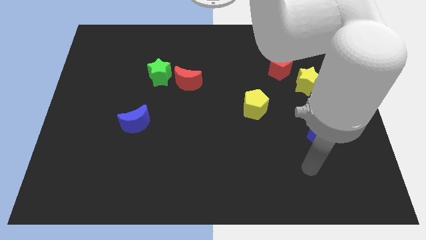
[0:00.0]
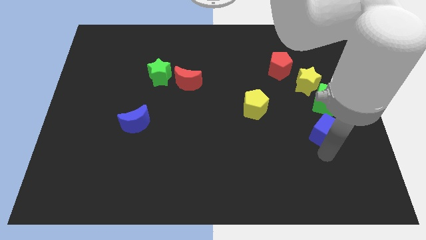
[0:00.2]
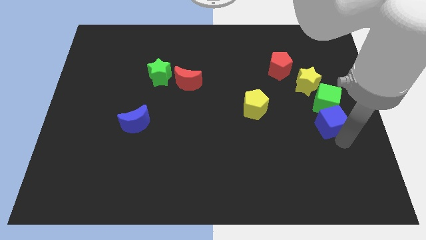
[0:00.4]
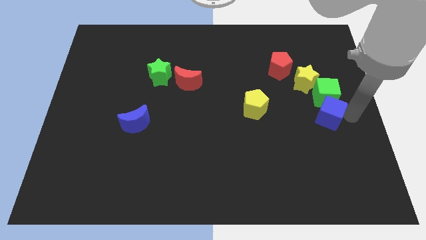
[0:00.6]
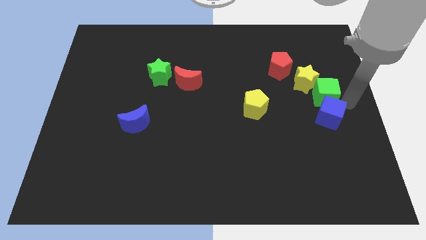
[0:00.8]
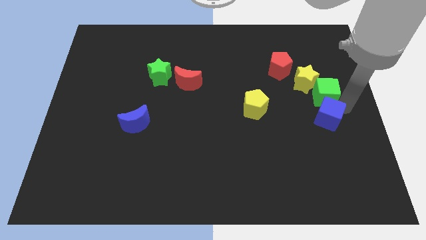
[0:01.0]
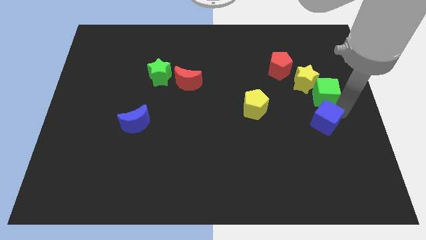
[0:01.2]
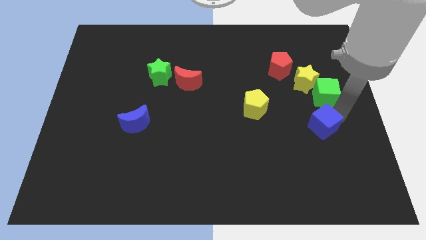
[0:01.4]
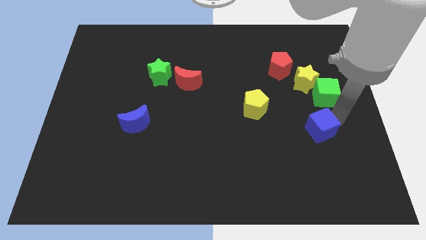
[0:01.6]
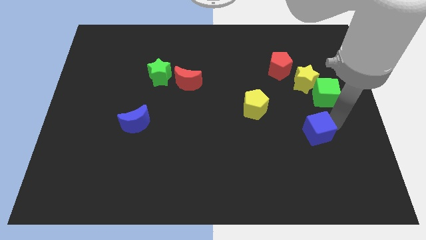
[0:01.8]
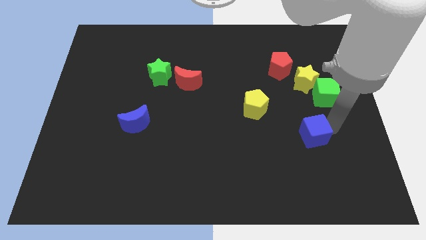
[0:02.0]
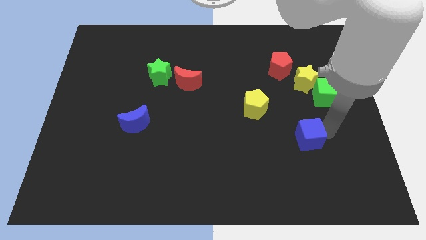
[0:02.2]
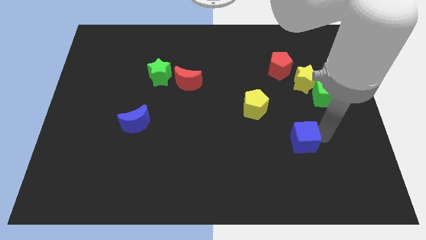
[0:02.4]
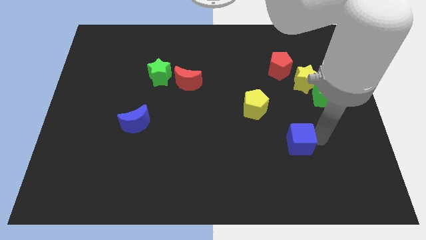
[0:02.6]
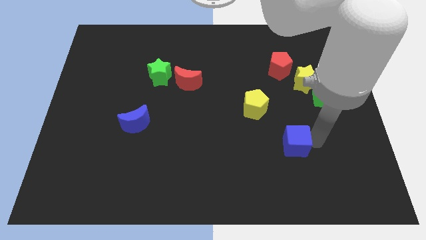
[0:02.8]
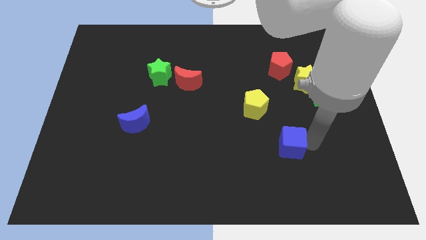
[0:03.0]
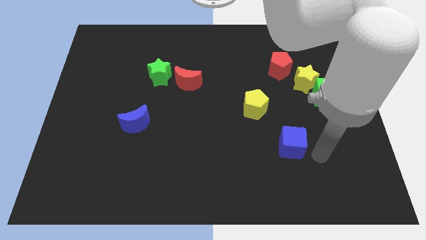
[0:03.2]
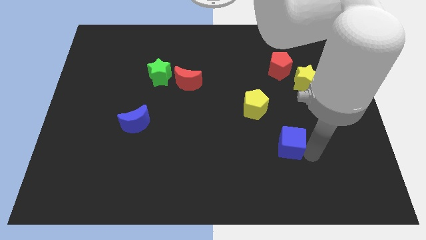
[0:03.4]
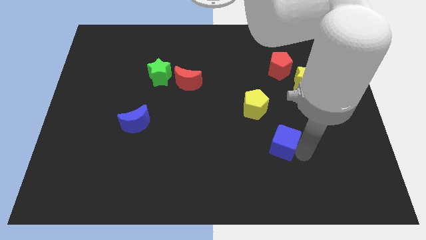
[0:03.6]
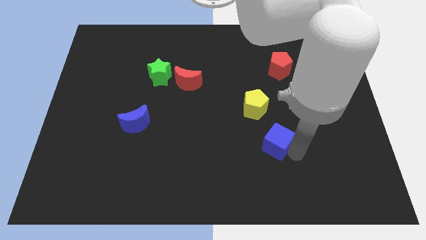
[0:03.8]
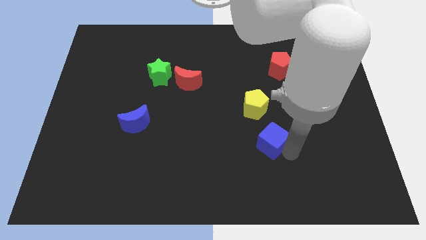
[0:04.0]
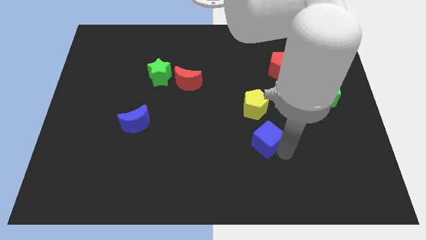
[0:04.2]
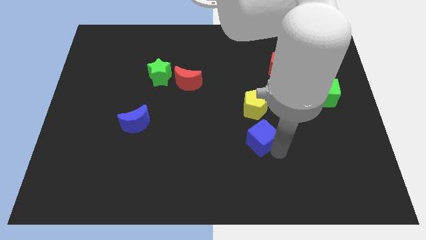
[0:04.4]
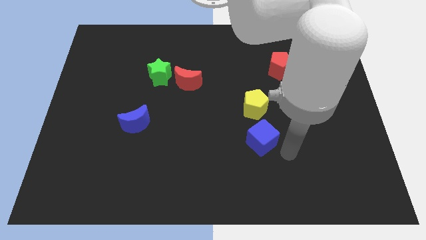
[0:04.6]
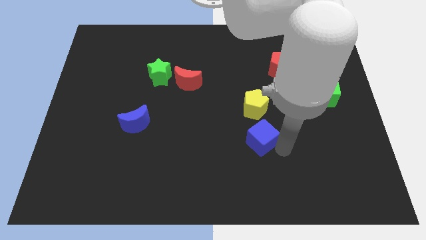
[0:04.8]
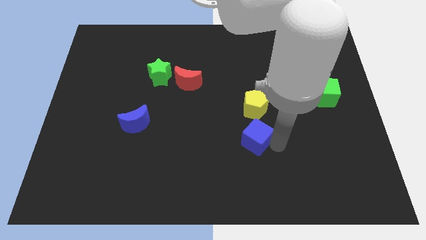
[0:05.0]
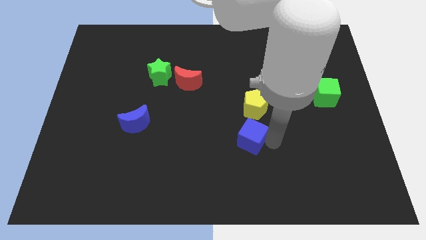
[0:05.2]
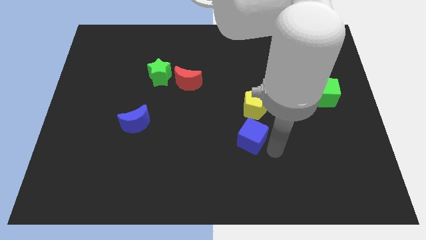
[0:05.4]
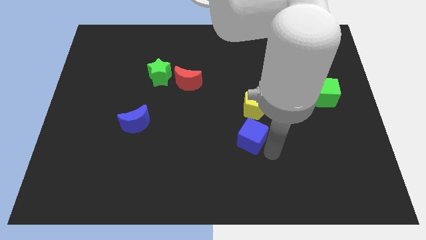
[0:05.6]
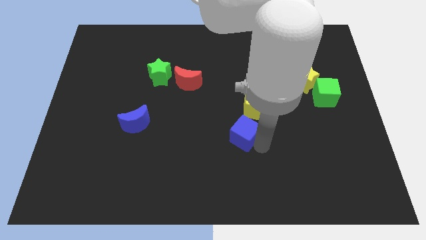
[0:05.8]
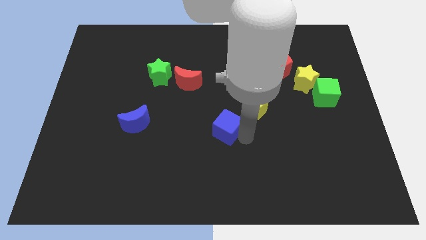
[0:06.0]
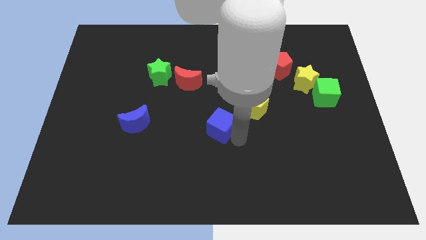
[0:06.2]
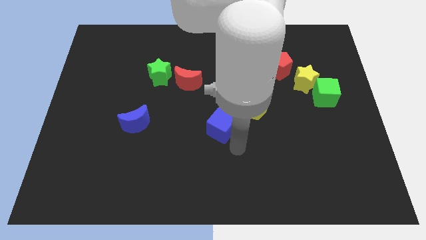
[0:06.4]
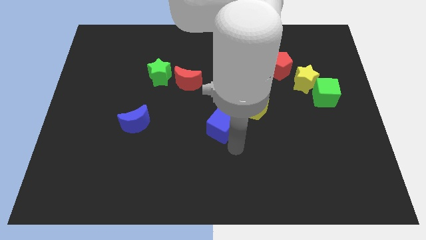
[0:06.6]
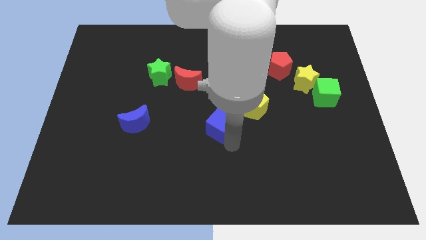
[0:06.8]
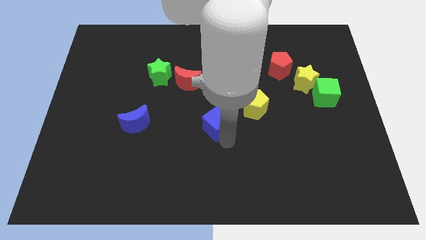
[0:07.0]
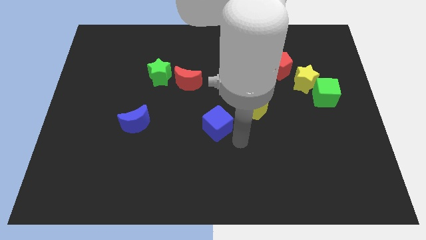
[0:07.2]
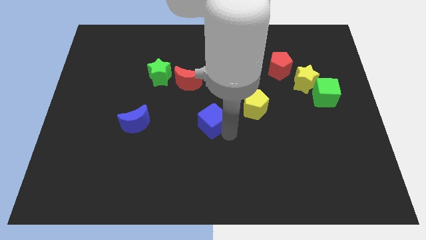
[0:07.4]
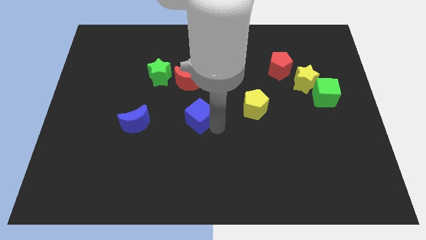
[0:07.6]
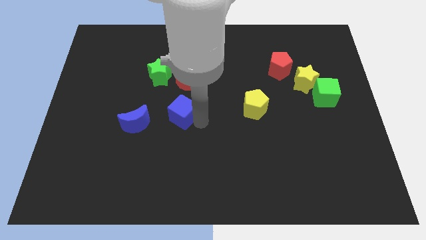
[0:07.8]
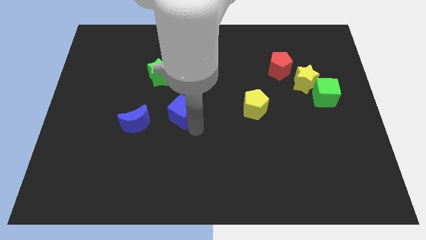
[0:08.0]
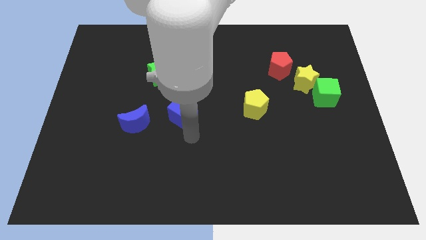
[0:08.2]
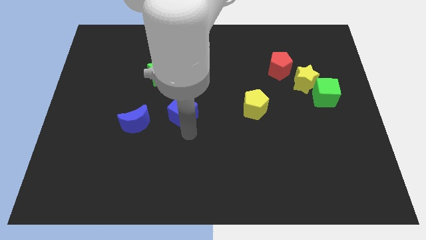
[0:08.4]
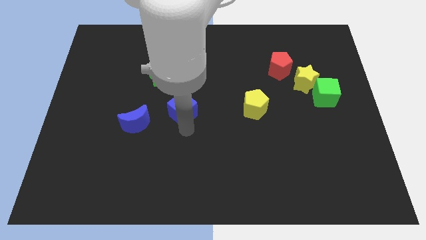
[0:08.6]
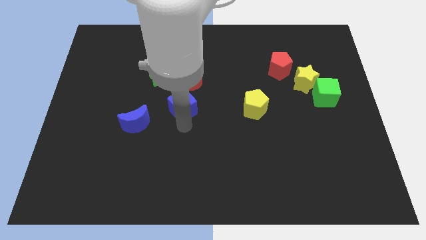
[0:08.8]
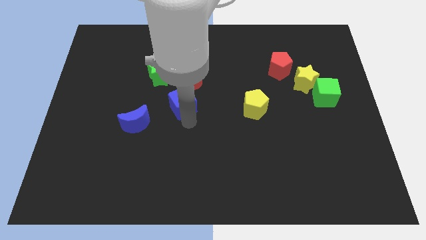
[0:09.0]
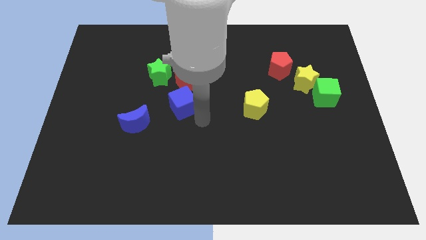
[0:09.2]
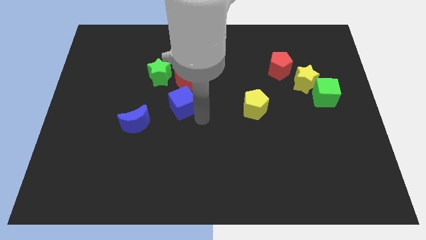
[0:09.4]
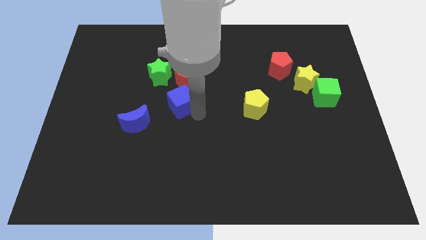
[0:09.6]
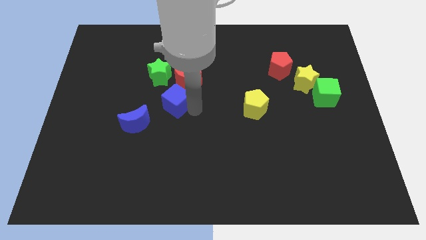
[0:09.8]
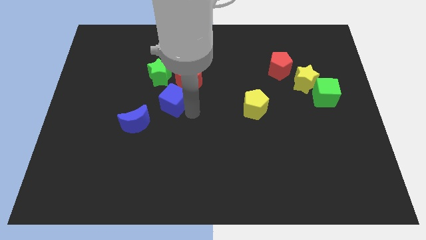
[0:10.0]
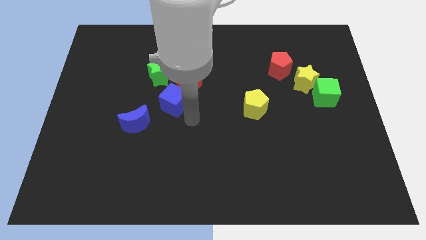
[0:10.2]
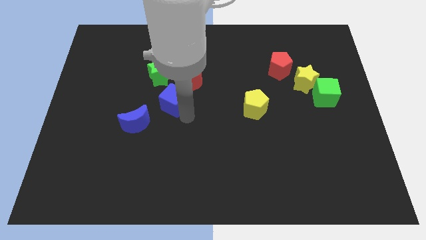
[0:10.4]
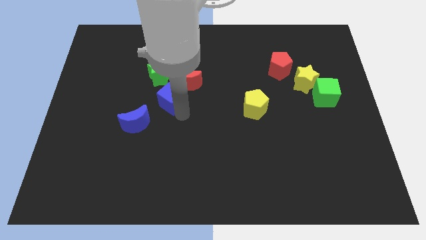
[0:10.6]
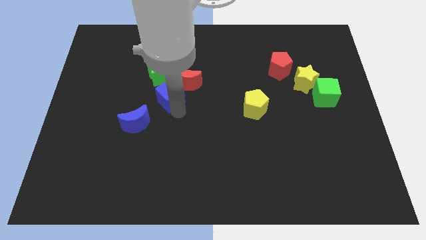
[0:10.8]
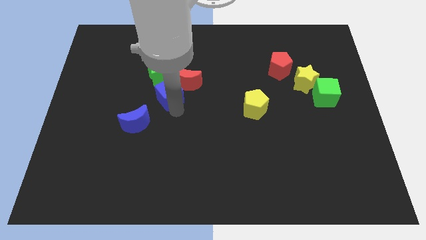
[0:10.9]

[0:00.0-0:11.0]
put the blue cube just left of the red moon

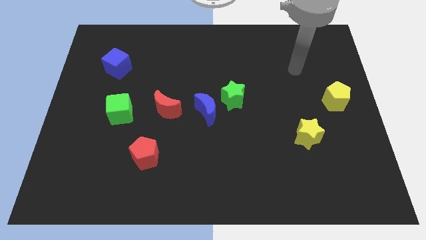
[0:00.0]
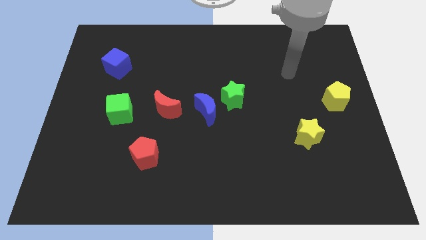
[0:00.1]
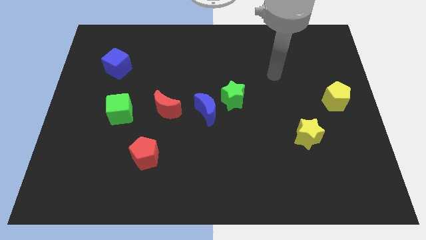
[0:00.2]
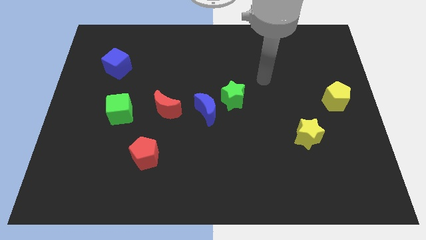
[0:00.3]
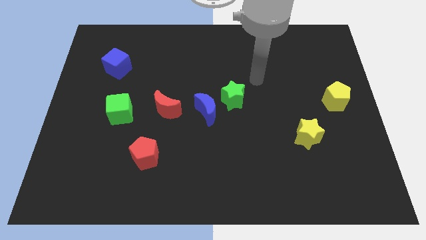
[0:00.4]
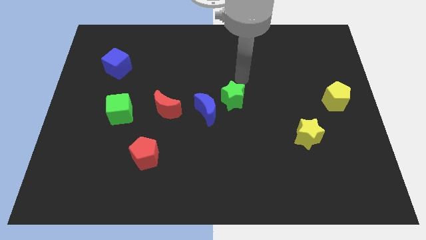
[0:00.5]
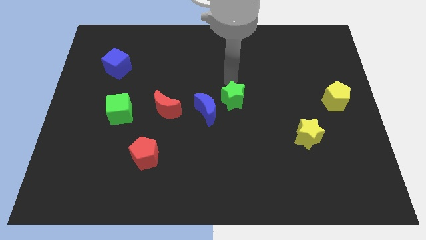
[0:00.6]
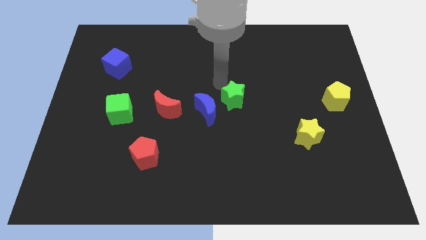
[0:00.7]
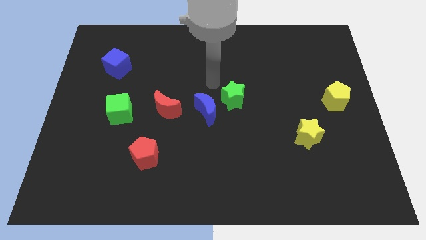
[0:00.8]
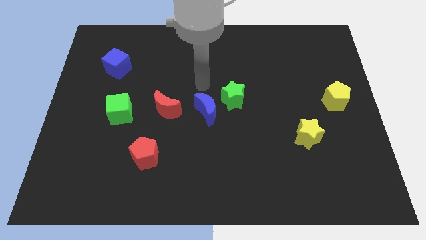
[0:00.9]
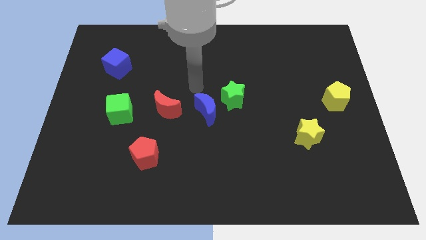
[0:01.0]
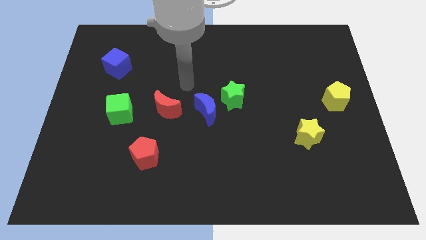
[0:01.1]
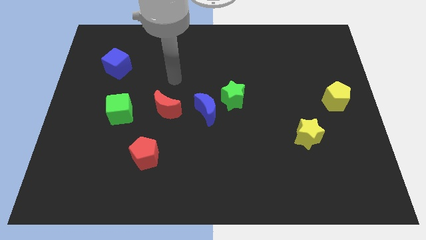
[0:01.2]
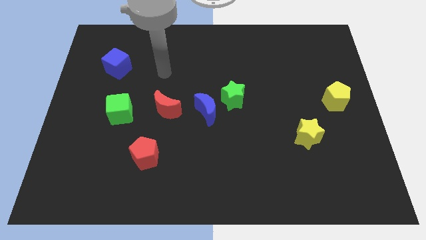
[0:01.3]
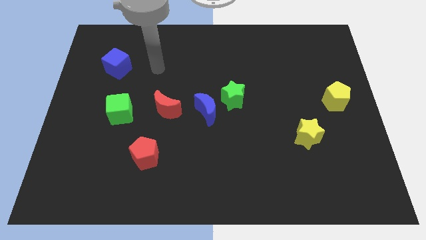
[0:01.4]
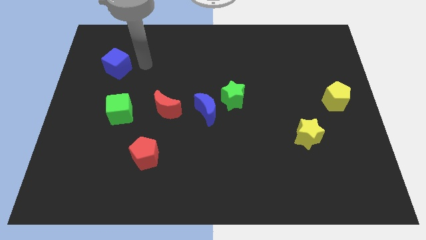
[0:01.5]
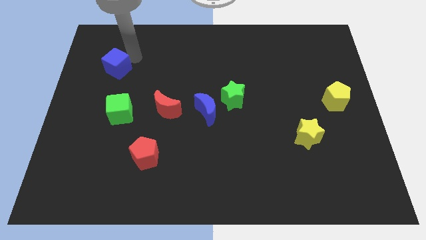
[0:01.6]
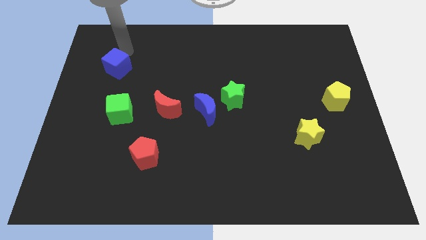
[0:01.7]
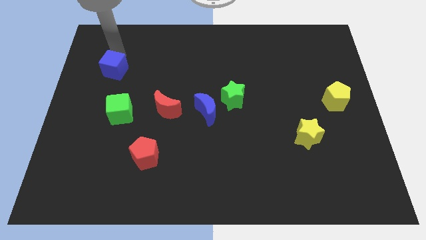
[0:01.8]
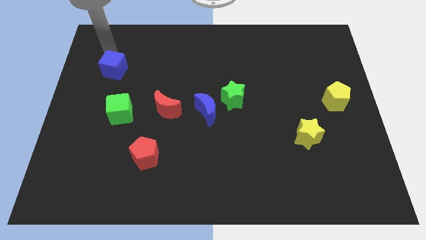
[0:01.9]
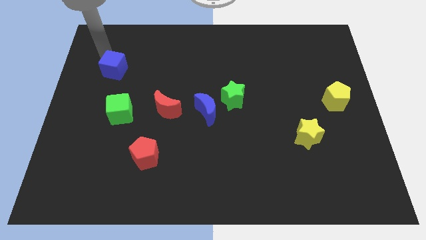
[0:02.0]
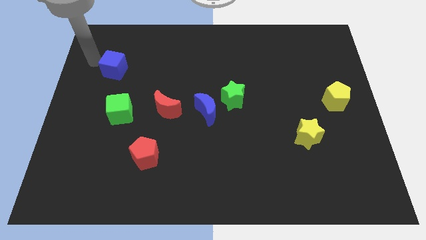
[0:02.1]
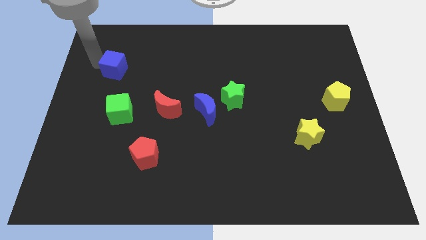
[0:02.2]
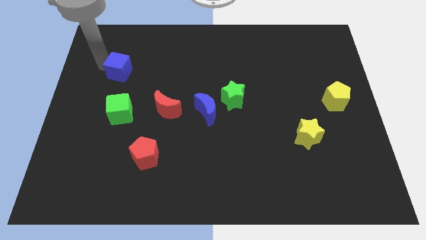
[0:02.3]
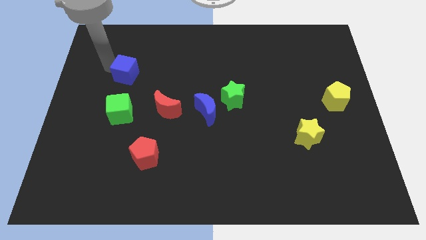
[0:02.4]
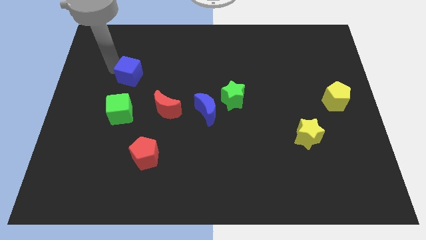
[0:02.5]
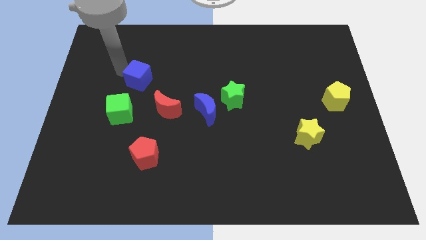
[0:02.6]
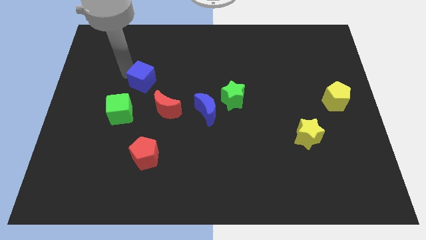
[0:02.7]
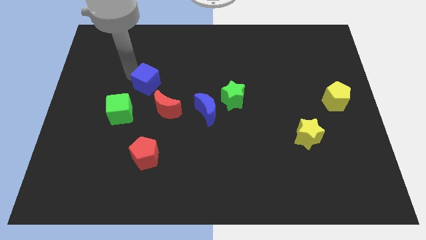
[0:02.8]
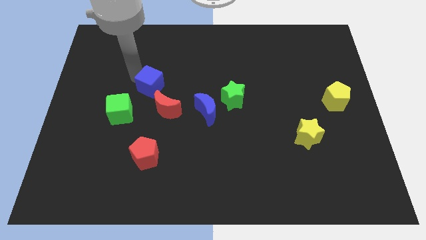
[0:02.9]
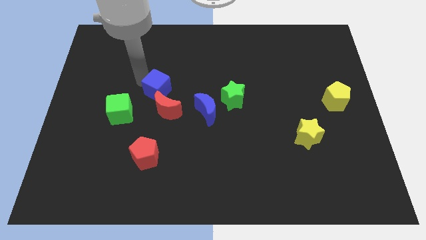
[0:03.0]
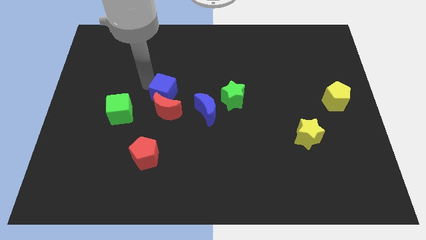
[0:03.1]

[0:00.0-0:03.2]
slide the blue cube to the top left of the blue moon
